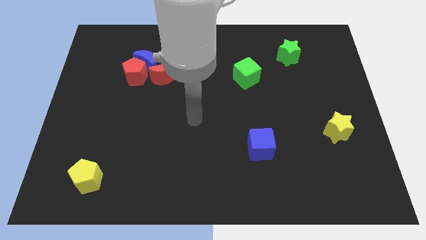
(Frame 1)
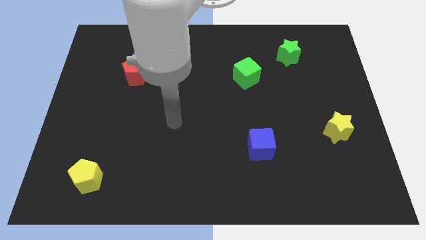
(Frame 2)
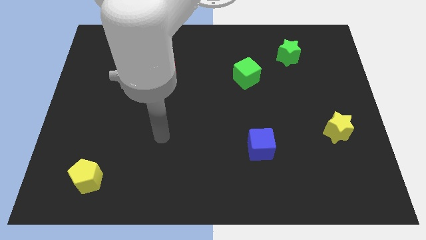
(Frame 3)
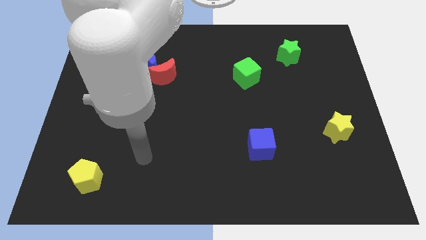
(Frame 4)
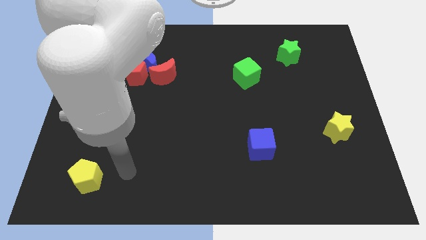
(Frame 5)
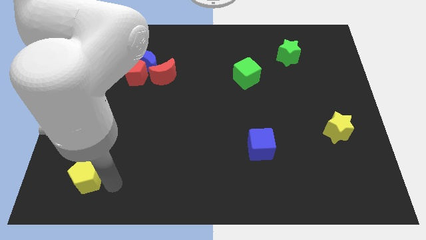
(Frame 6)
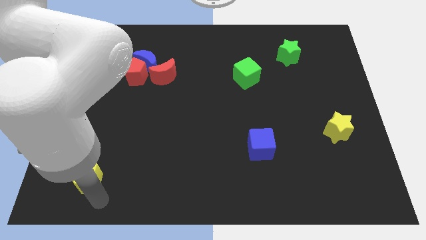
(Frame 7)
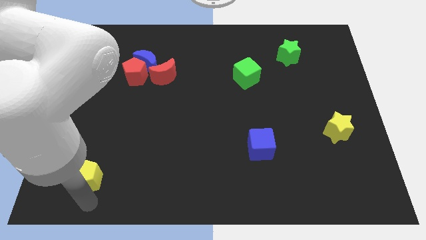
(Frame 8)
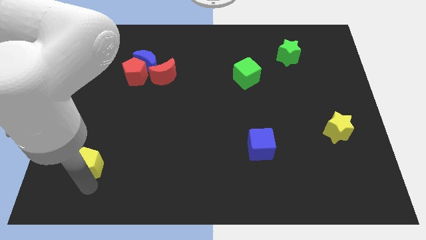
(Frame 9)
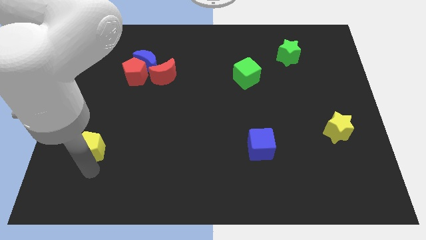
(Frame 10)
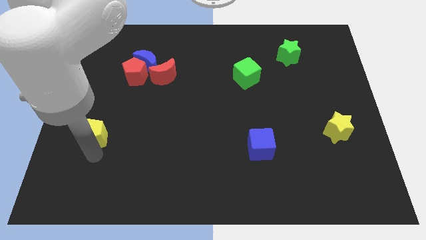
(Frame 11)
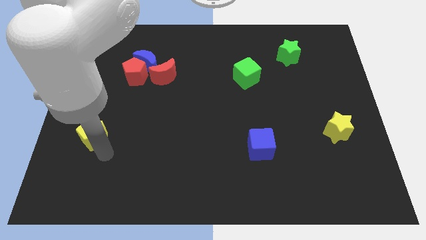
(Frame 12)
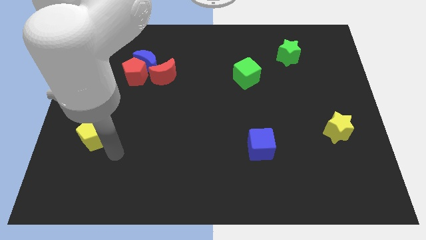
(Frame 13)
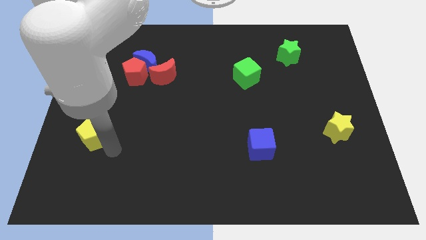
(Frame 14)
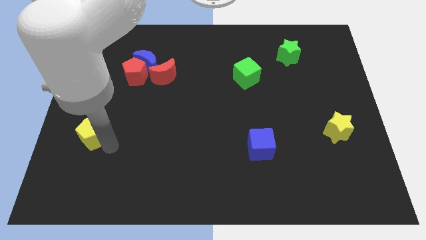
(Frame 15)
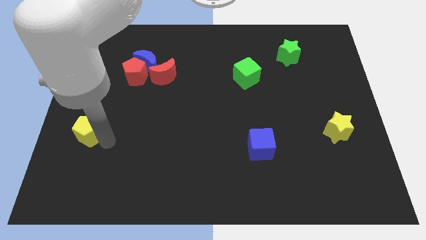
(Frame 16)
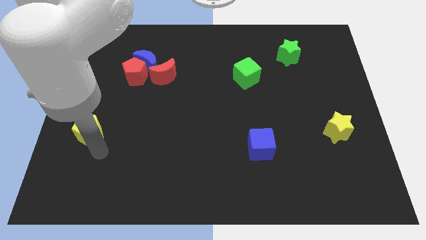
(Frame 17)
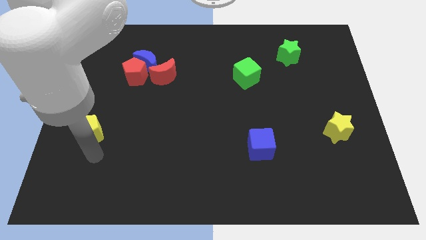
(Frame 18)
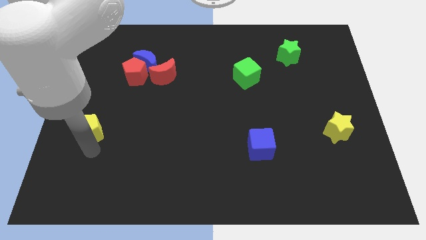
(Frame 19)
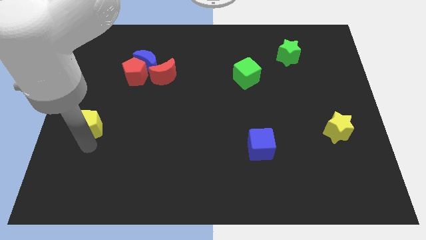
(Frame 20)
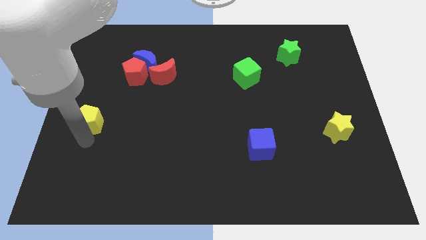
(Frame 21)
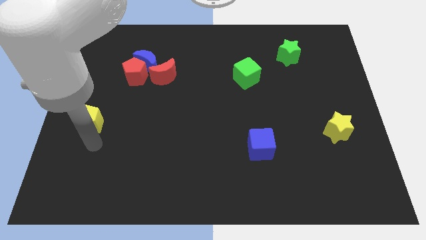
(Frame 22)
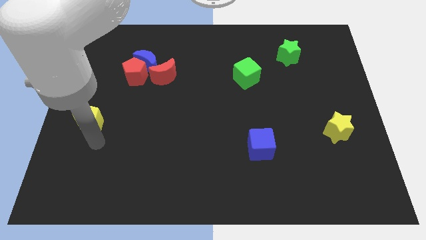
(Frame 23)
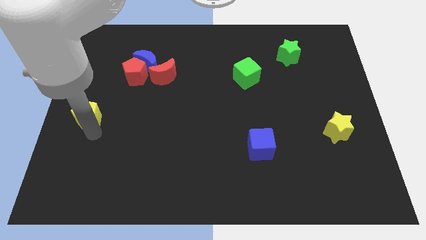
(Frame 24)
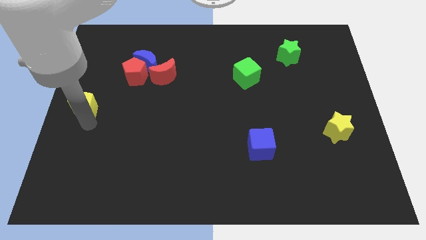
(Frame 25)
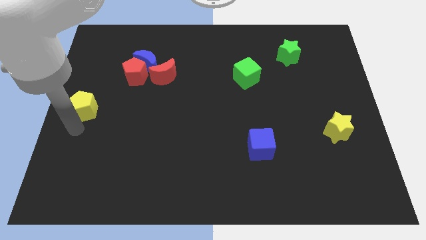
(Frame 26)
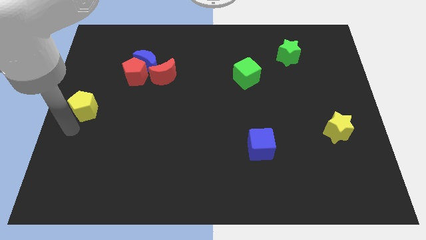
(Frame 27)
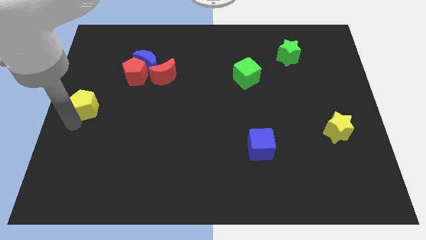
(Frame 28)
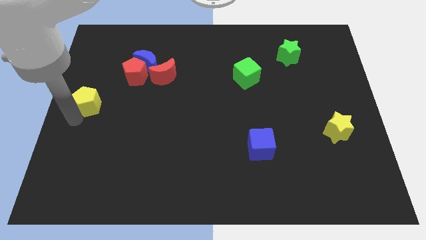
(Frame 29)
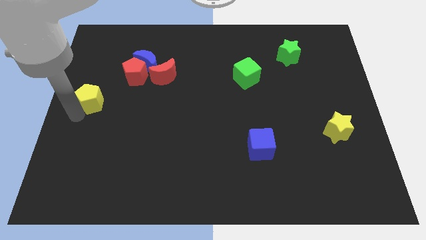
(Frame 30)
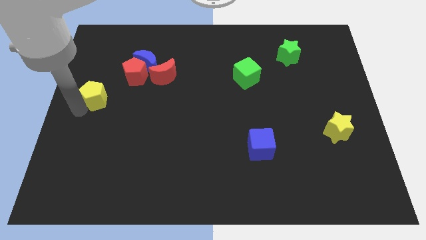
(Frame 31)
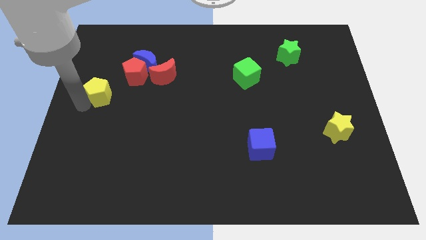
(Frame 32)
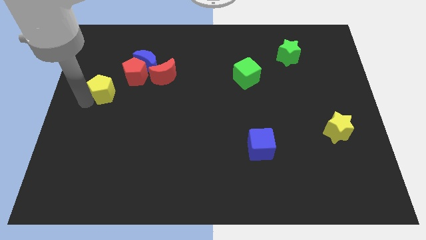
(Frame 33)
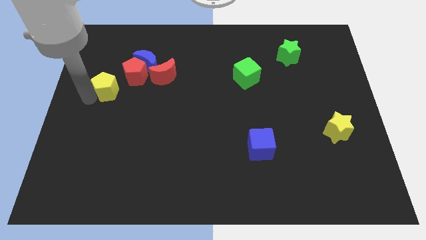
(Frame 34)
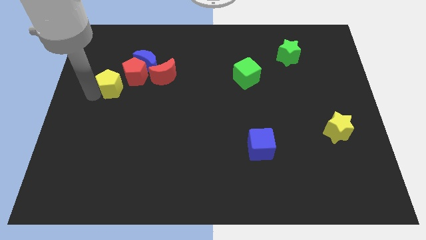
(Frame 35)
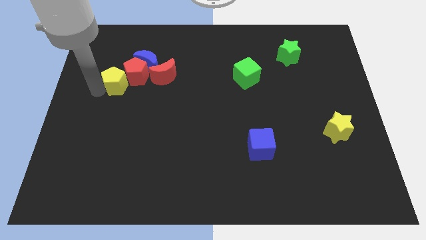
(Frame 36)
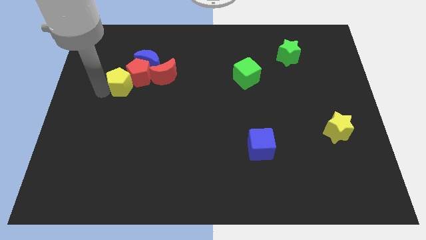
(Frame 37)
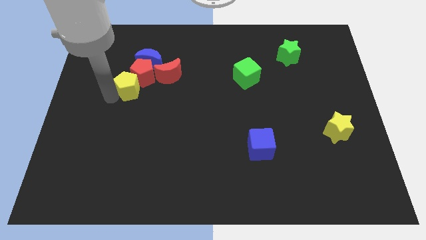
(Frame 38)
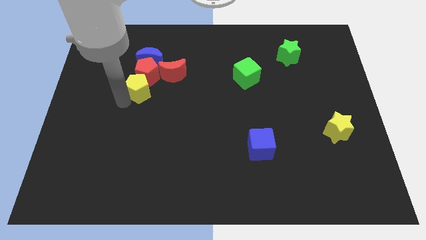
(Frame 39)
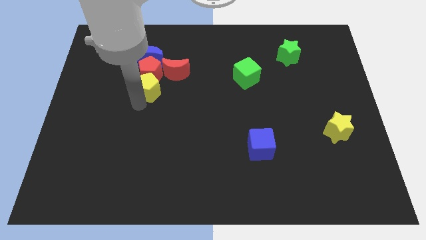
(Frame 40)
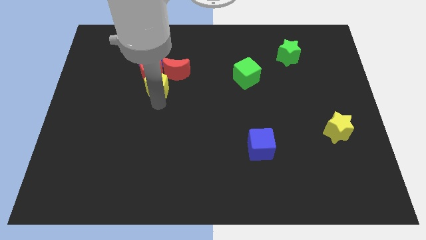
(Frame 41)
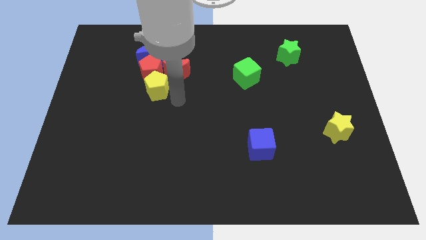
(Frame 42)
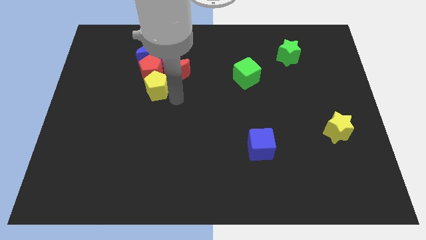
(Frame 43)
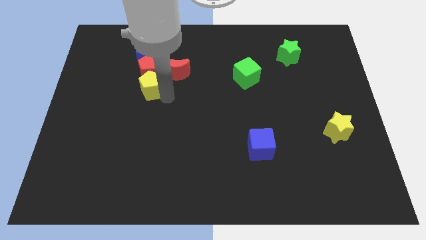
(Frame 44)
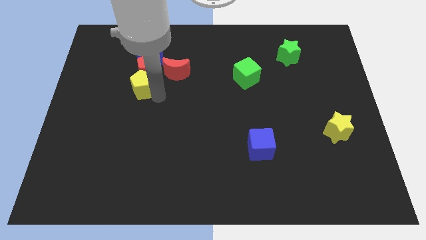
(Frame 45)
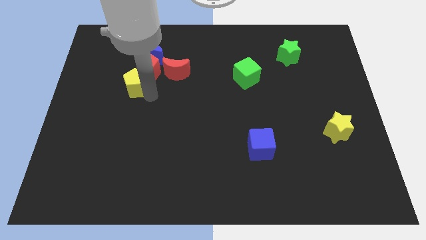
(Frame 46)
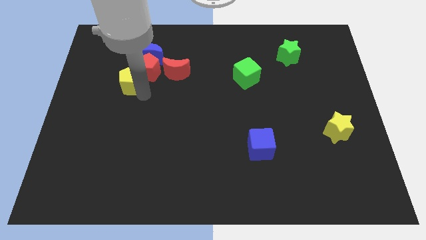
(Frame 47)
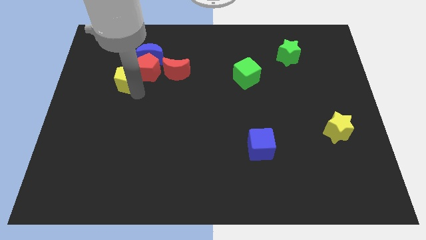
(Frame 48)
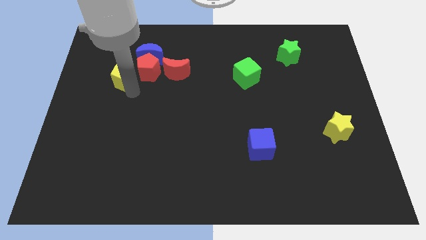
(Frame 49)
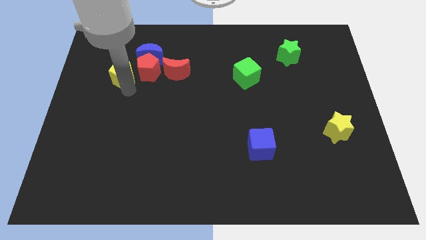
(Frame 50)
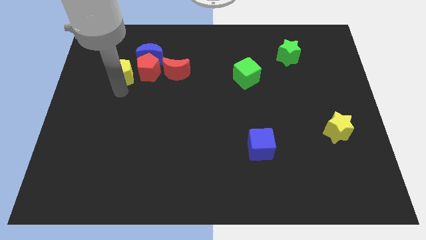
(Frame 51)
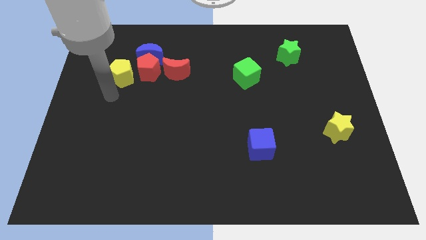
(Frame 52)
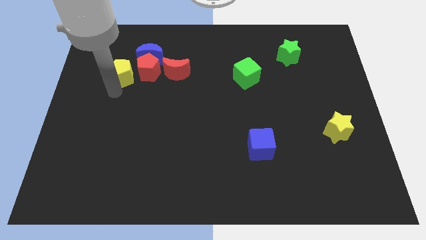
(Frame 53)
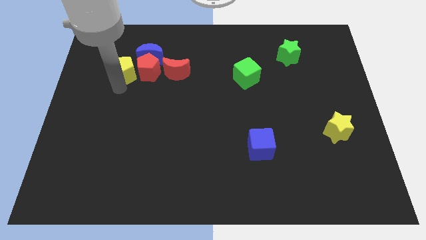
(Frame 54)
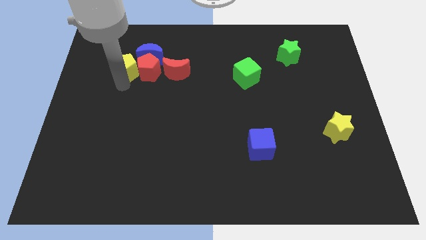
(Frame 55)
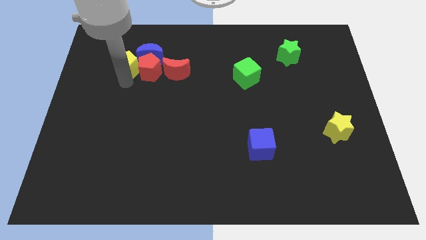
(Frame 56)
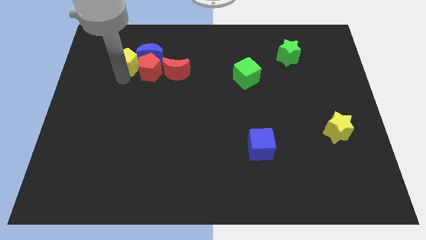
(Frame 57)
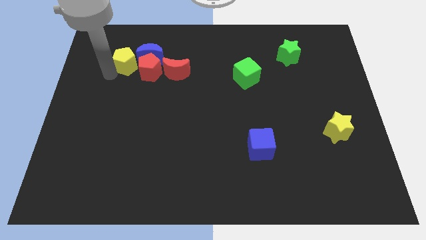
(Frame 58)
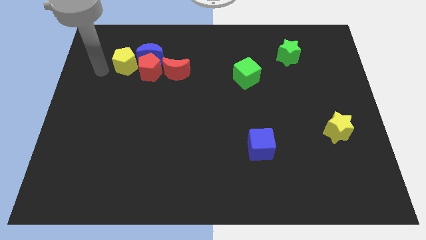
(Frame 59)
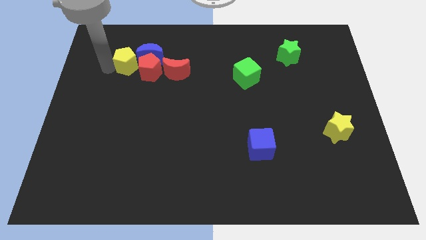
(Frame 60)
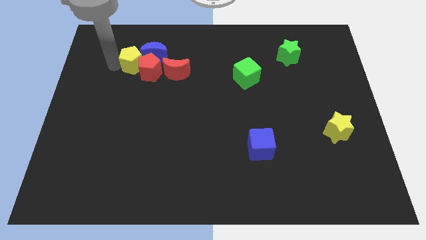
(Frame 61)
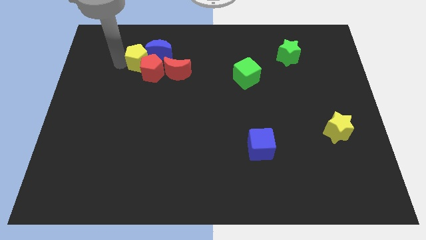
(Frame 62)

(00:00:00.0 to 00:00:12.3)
put the yellow pentagon to the top left of the red moon
